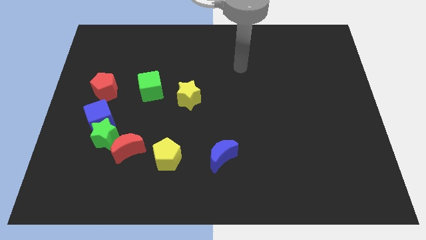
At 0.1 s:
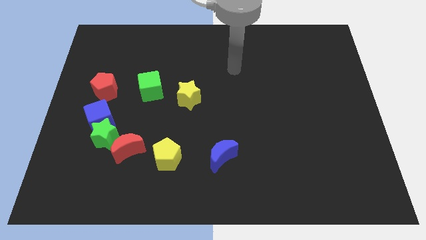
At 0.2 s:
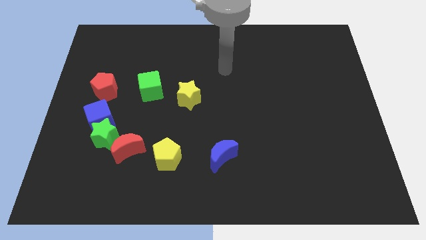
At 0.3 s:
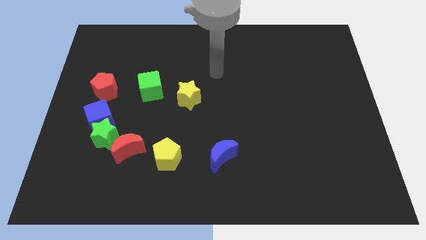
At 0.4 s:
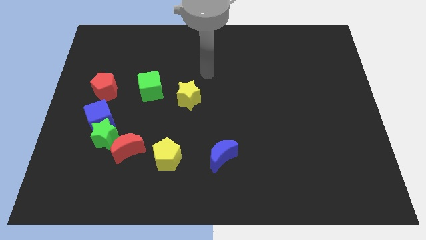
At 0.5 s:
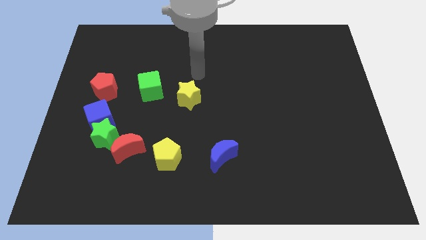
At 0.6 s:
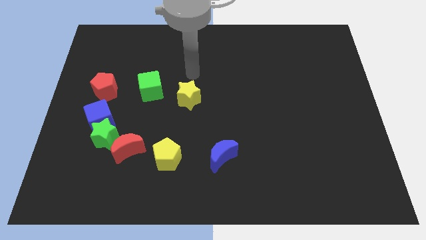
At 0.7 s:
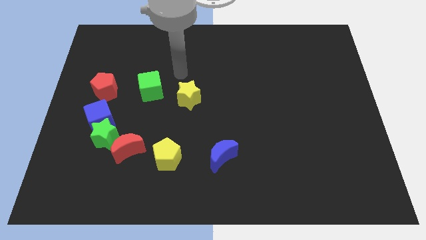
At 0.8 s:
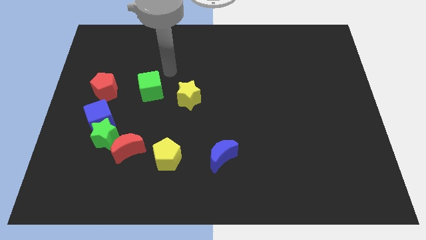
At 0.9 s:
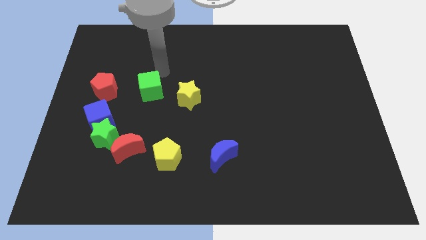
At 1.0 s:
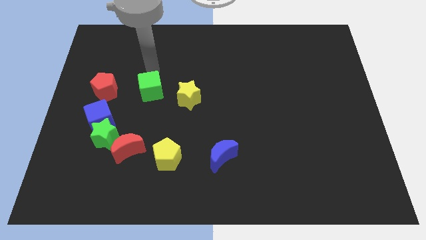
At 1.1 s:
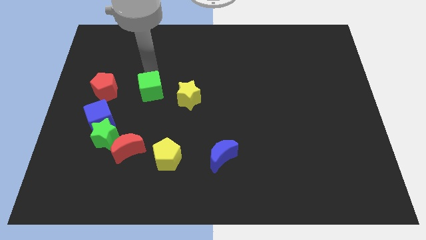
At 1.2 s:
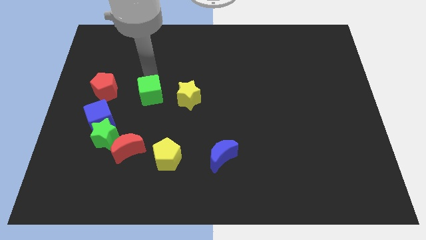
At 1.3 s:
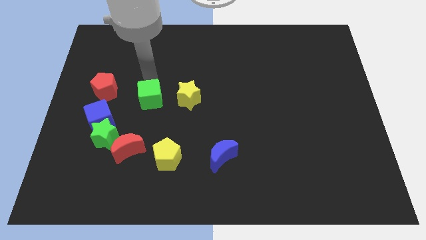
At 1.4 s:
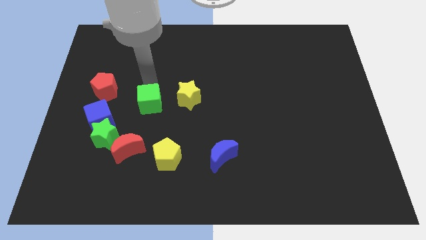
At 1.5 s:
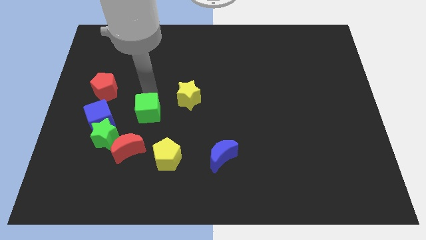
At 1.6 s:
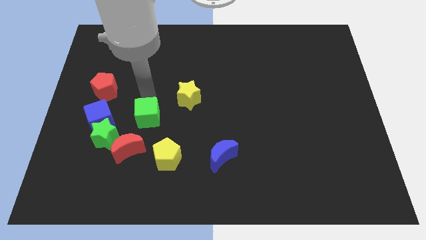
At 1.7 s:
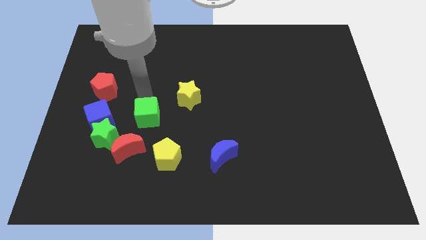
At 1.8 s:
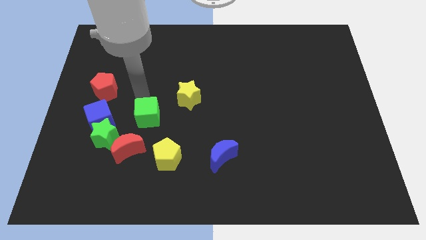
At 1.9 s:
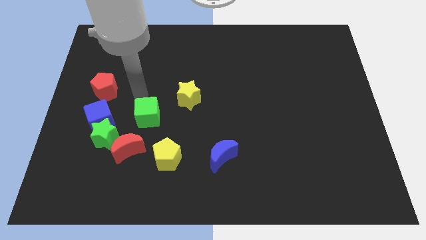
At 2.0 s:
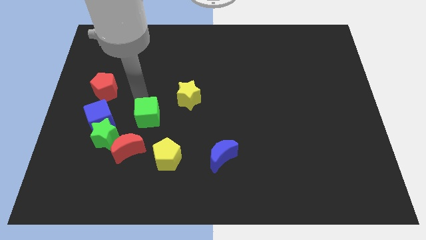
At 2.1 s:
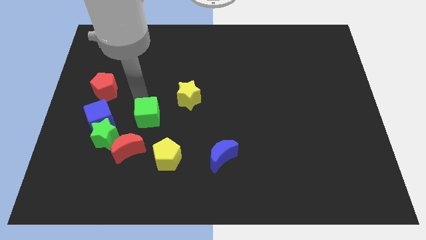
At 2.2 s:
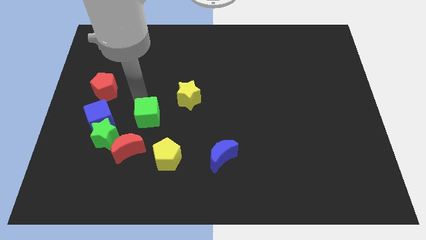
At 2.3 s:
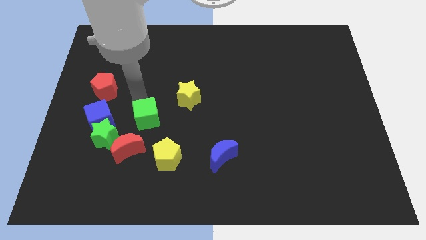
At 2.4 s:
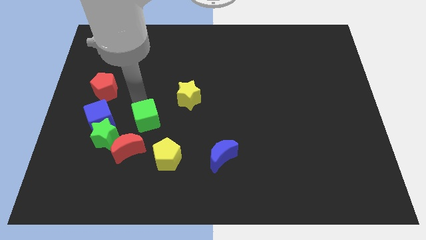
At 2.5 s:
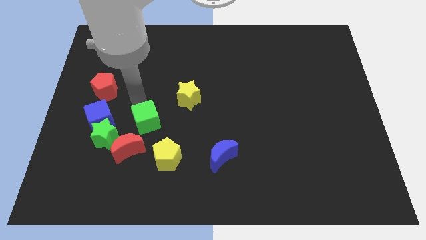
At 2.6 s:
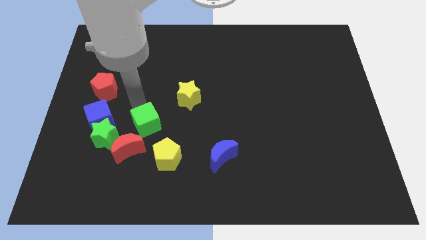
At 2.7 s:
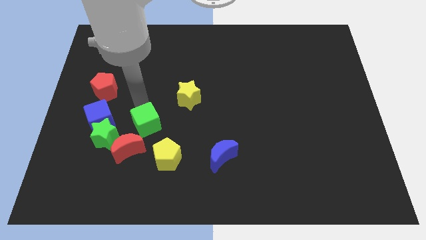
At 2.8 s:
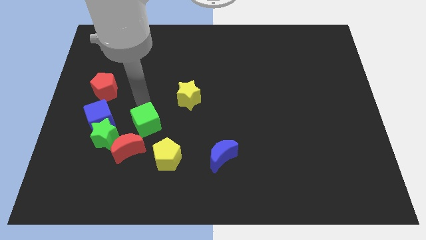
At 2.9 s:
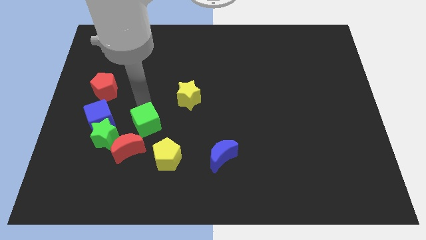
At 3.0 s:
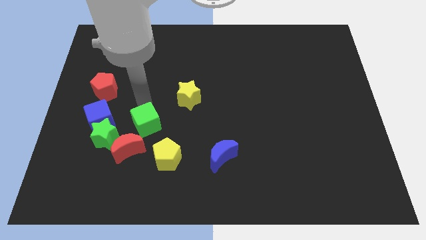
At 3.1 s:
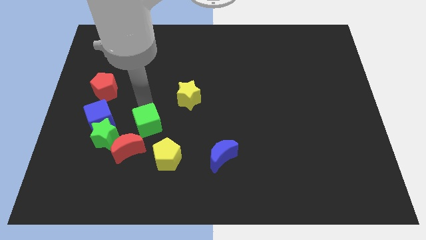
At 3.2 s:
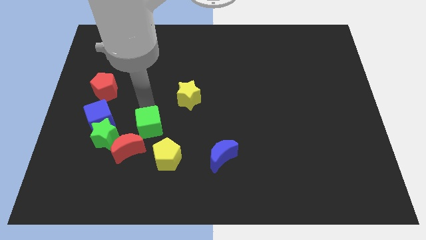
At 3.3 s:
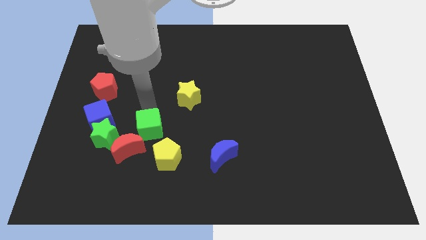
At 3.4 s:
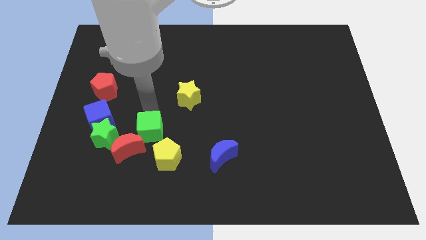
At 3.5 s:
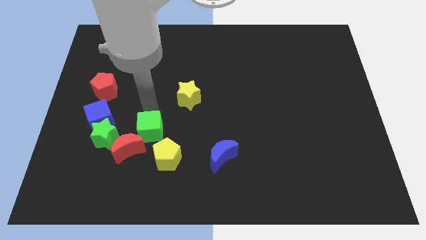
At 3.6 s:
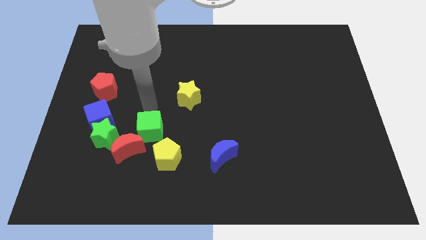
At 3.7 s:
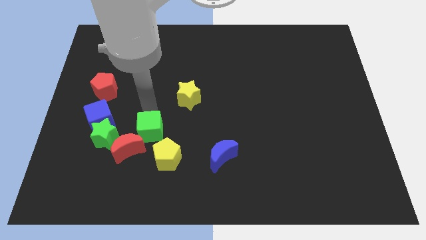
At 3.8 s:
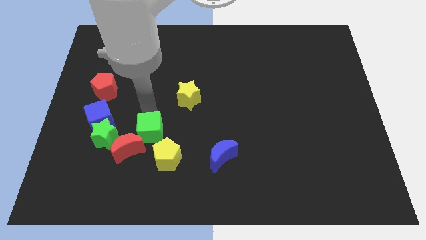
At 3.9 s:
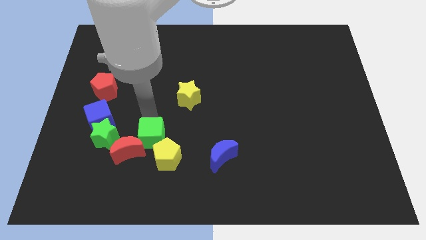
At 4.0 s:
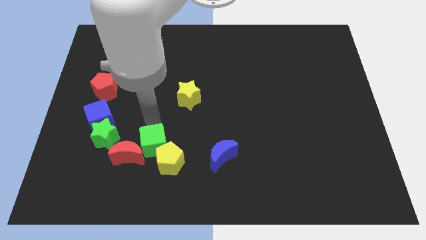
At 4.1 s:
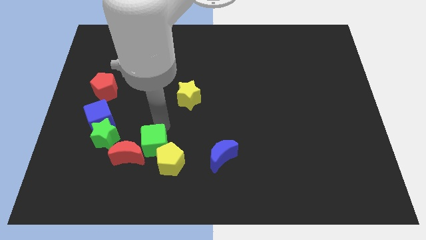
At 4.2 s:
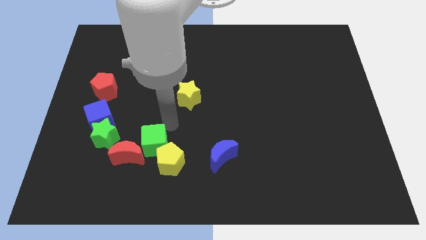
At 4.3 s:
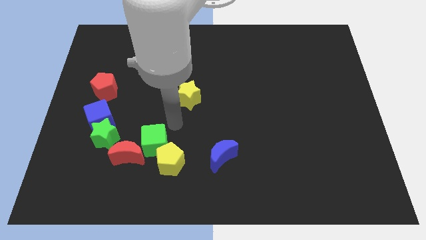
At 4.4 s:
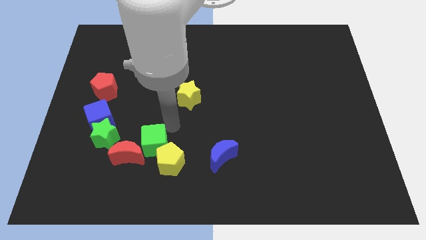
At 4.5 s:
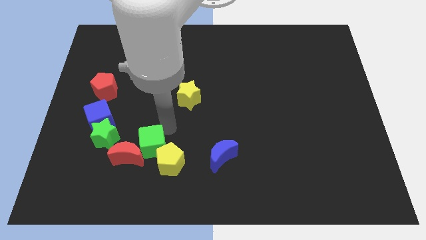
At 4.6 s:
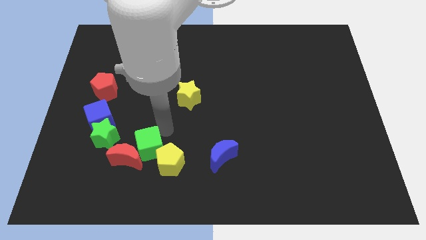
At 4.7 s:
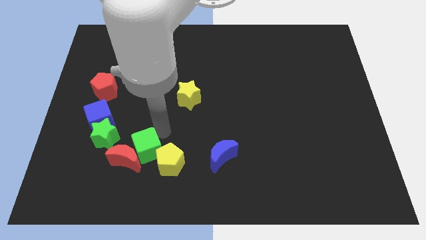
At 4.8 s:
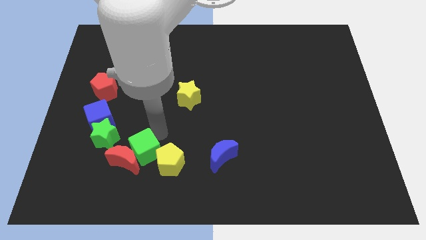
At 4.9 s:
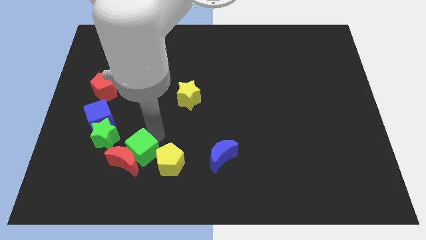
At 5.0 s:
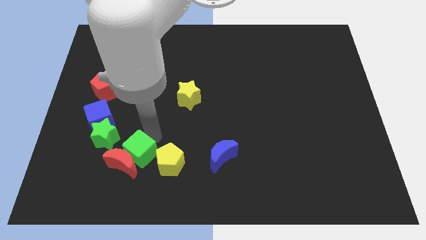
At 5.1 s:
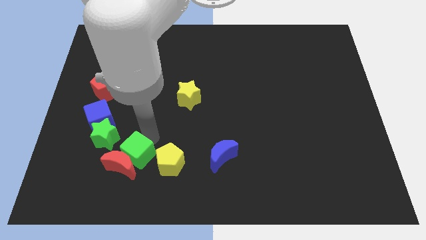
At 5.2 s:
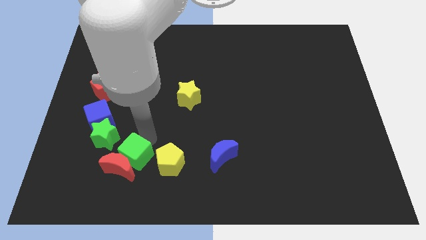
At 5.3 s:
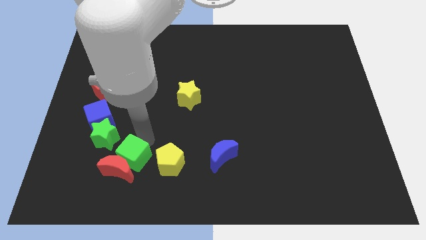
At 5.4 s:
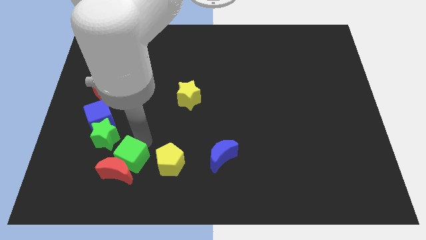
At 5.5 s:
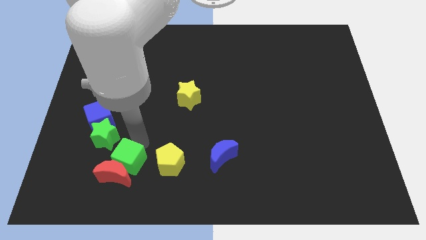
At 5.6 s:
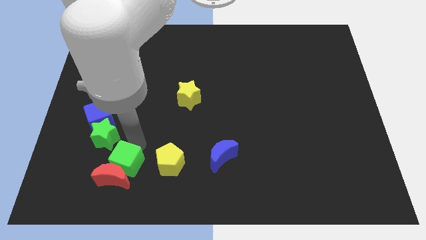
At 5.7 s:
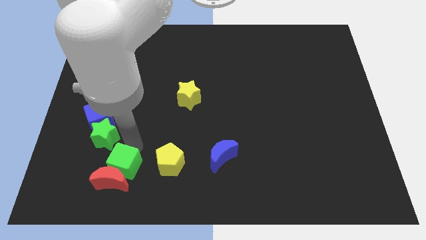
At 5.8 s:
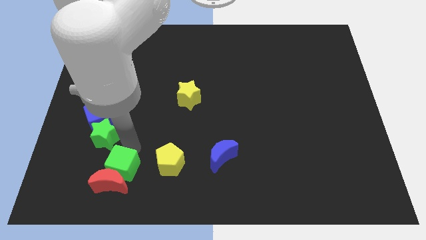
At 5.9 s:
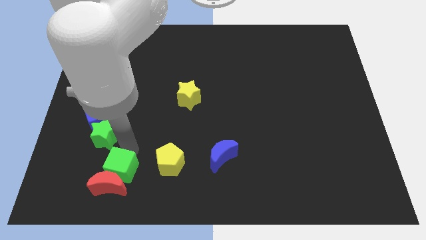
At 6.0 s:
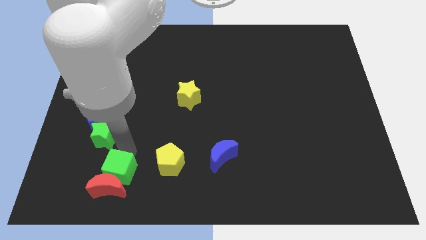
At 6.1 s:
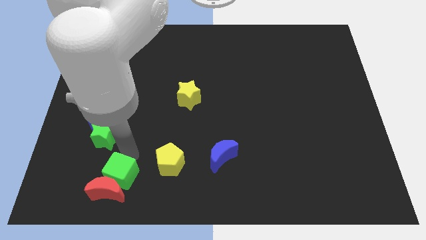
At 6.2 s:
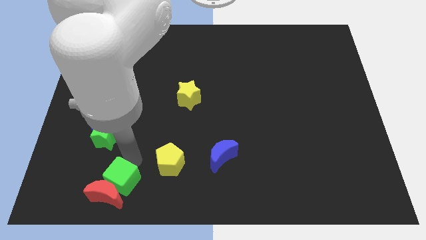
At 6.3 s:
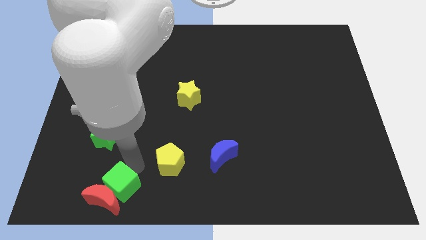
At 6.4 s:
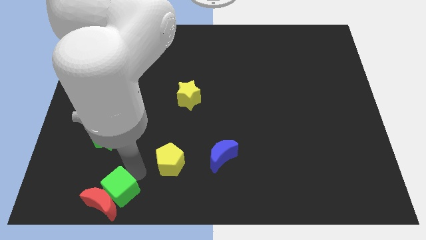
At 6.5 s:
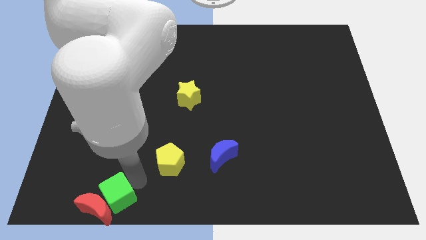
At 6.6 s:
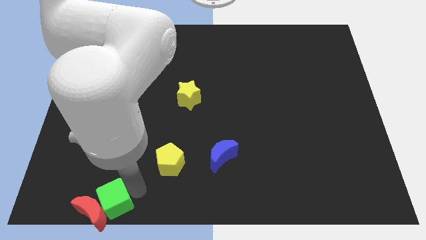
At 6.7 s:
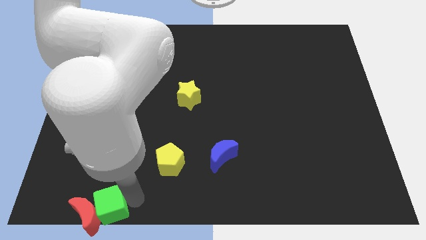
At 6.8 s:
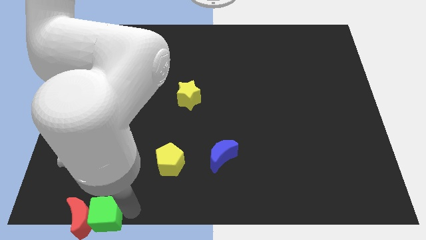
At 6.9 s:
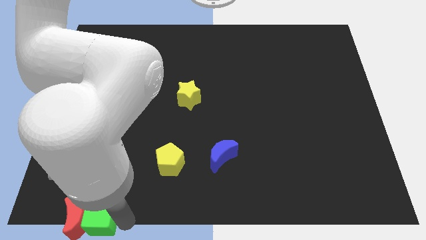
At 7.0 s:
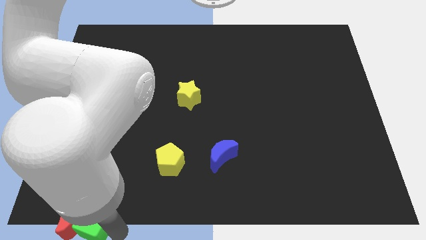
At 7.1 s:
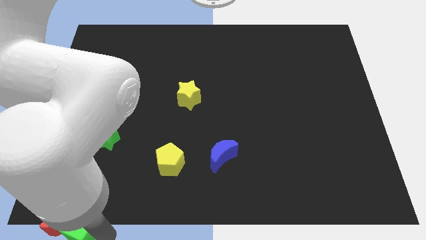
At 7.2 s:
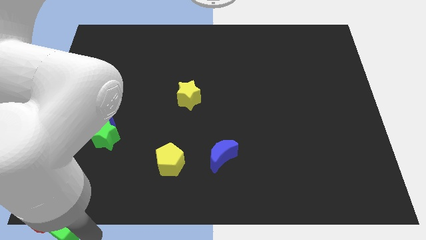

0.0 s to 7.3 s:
slide the green cube to the bottom left of the board
